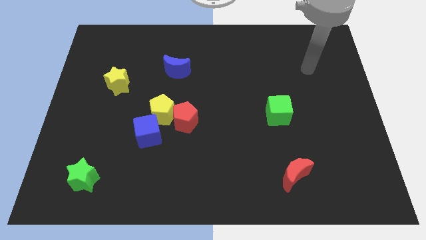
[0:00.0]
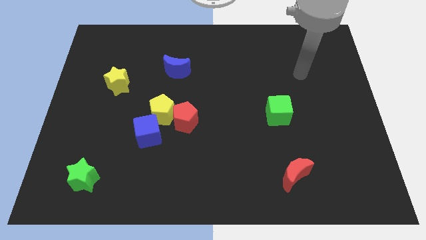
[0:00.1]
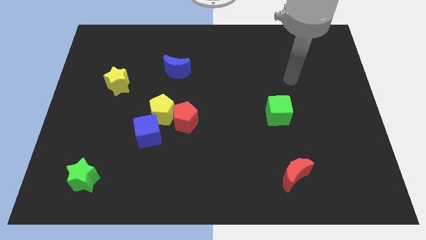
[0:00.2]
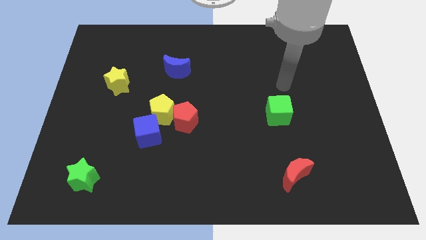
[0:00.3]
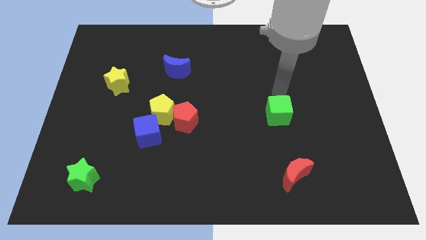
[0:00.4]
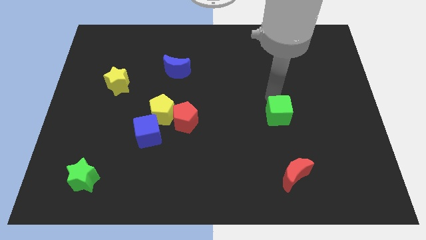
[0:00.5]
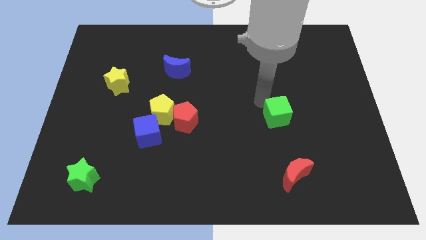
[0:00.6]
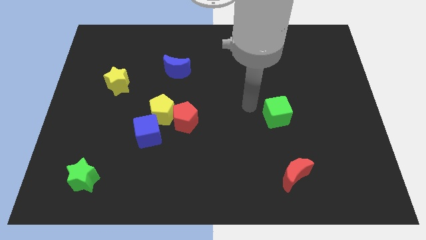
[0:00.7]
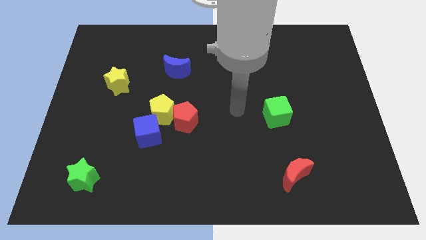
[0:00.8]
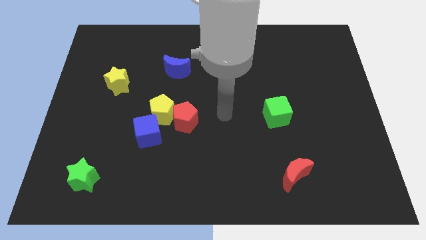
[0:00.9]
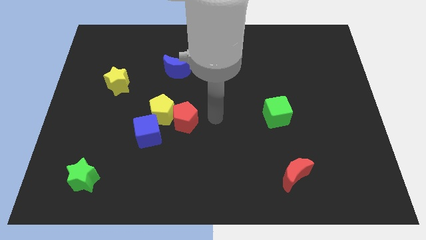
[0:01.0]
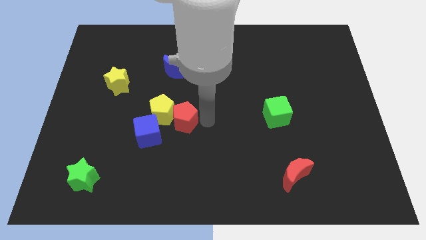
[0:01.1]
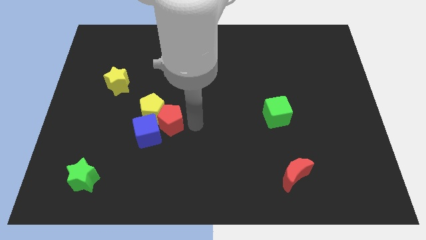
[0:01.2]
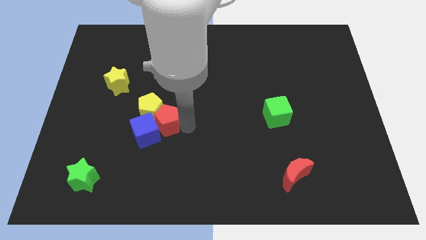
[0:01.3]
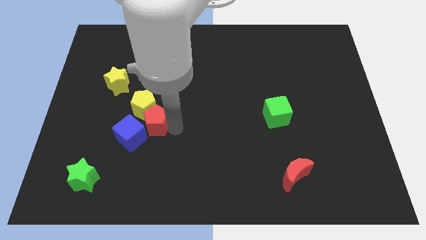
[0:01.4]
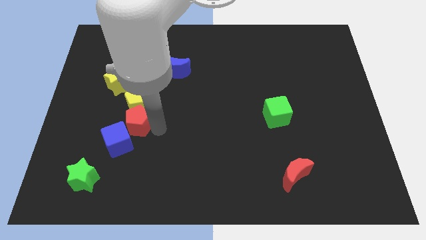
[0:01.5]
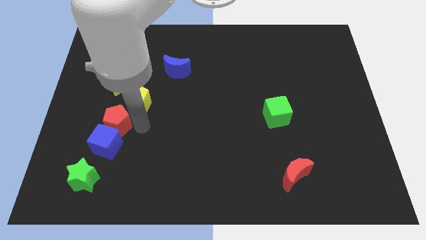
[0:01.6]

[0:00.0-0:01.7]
separate the yellow pentagon from the red pentagon and blue cube

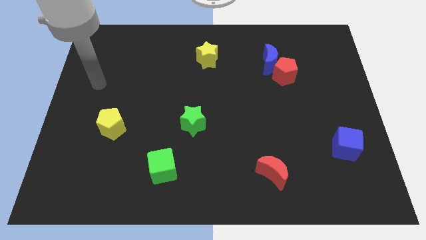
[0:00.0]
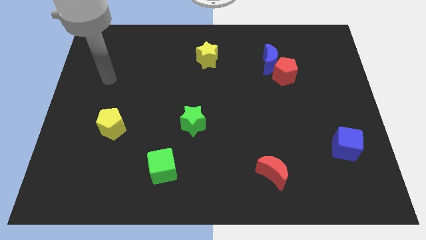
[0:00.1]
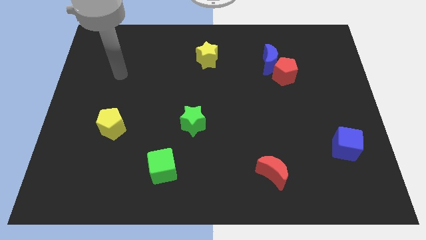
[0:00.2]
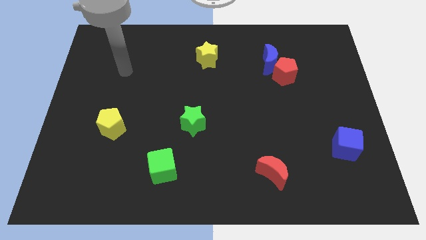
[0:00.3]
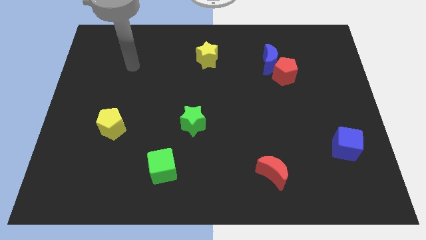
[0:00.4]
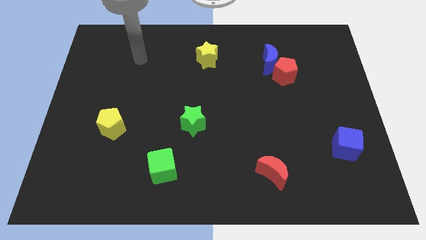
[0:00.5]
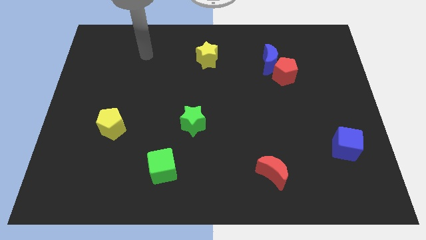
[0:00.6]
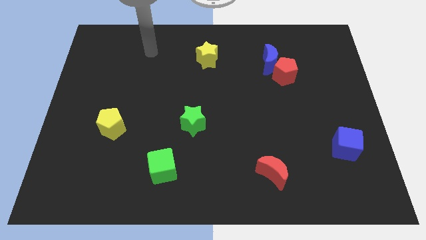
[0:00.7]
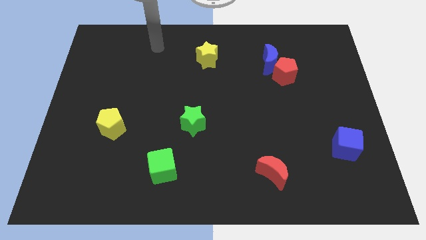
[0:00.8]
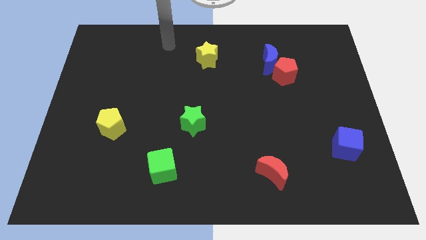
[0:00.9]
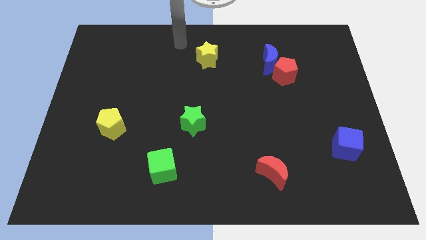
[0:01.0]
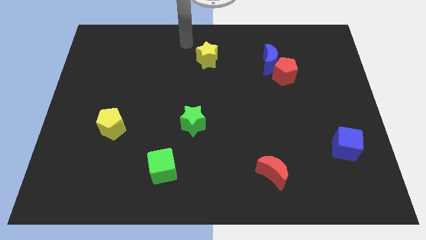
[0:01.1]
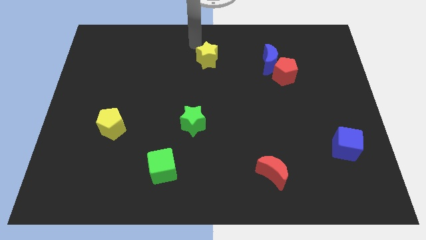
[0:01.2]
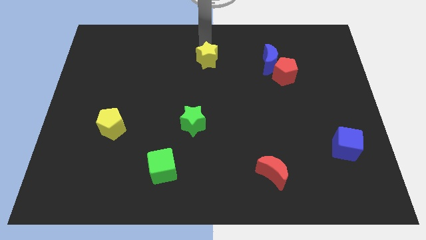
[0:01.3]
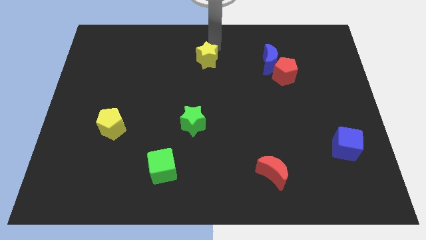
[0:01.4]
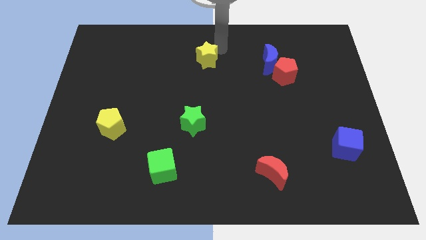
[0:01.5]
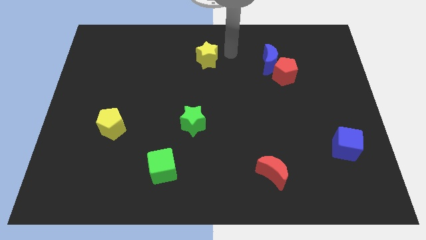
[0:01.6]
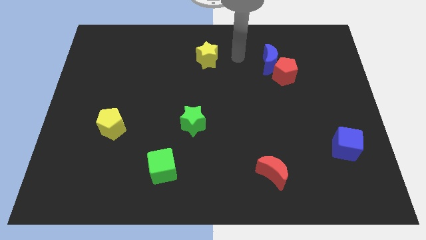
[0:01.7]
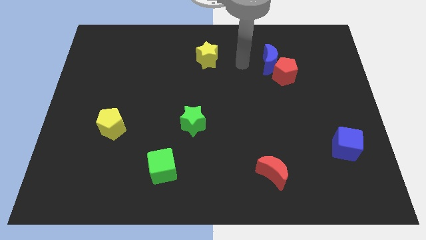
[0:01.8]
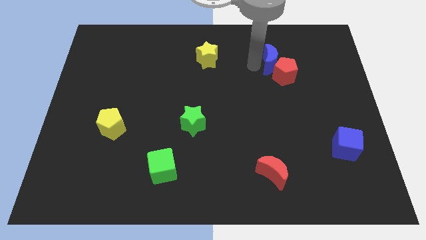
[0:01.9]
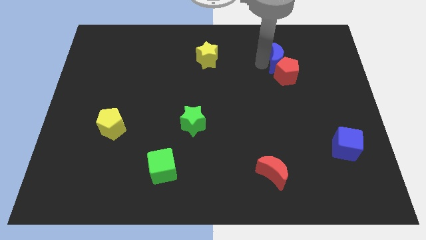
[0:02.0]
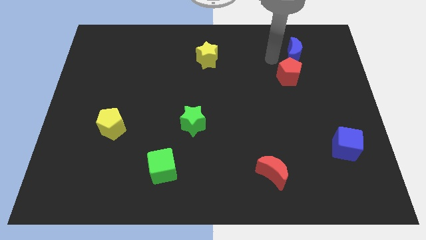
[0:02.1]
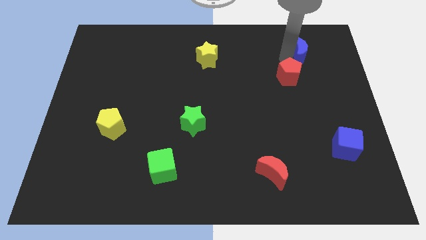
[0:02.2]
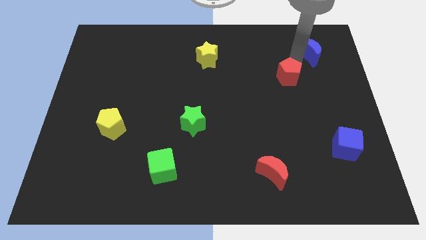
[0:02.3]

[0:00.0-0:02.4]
pull the red pentagon apart from the blue moon

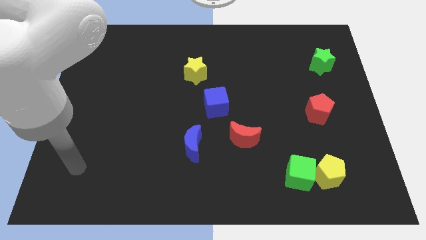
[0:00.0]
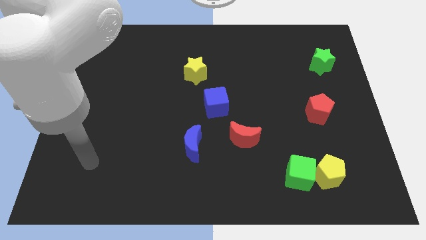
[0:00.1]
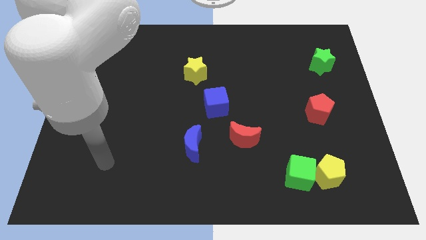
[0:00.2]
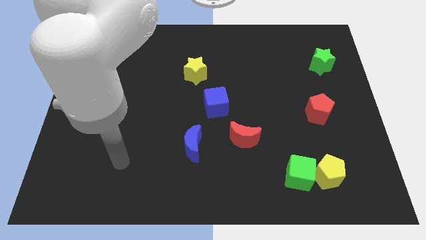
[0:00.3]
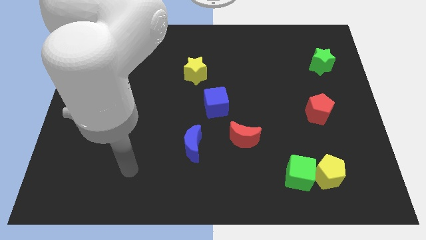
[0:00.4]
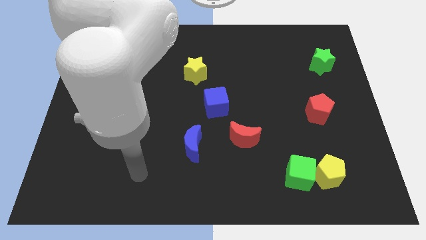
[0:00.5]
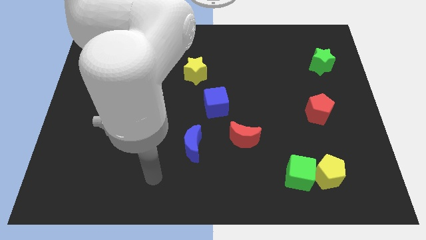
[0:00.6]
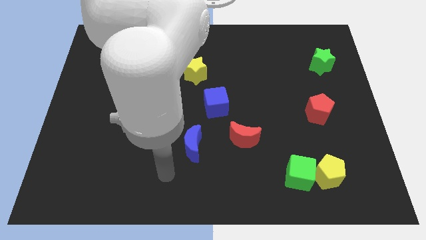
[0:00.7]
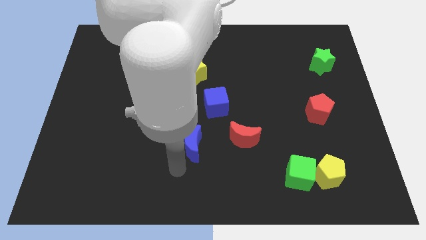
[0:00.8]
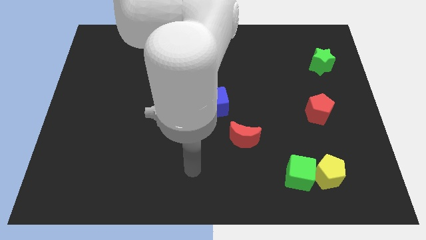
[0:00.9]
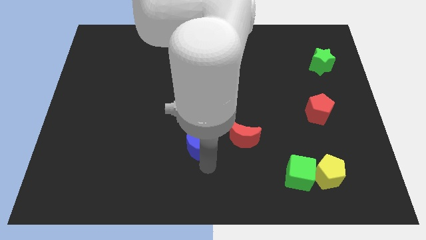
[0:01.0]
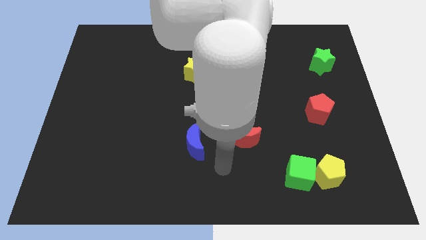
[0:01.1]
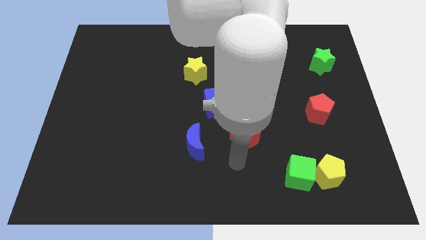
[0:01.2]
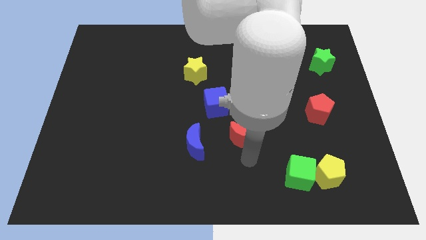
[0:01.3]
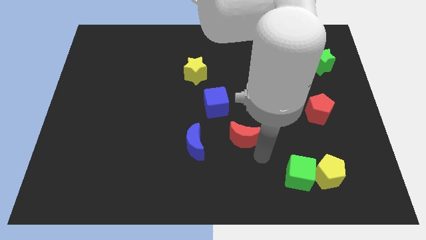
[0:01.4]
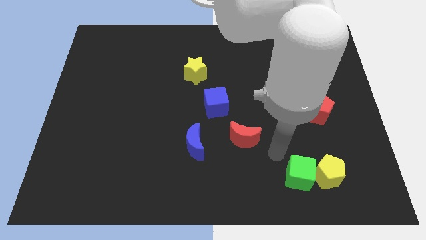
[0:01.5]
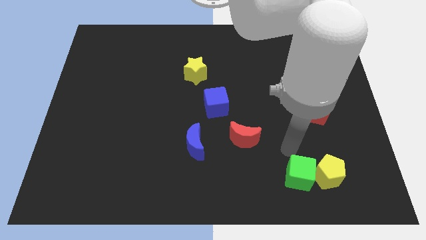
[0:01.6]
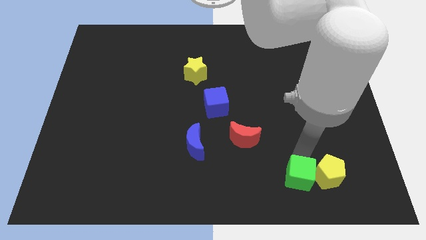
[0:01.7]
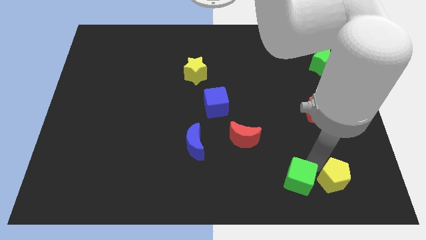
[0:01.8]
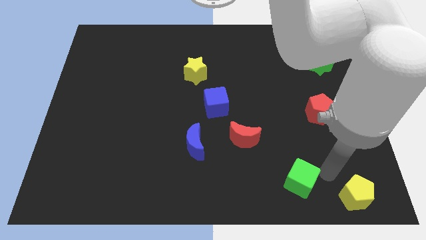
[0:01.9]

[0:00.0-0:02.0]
separate the green cube from the yellow pentagon

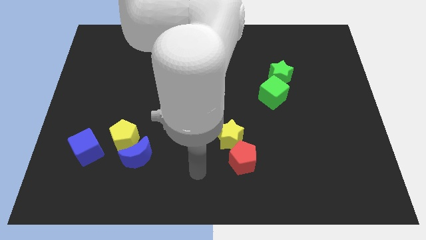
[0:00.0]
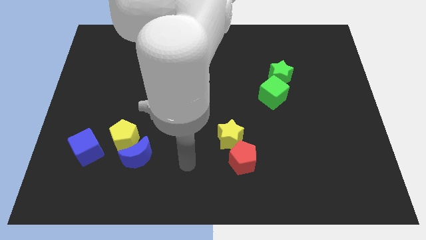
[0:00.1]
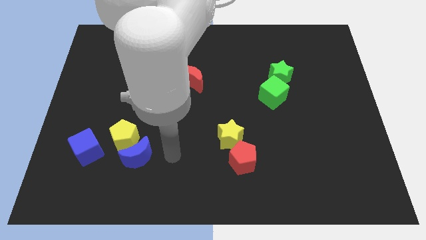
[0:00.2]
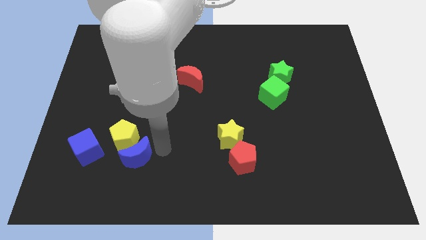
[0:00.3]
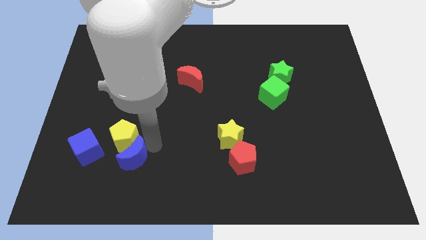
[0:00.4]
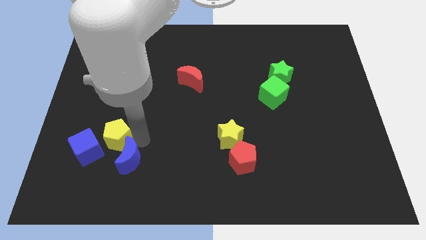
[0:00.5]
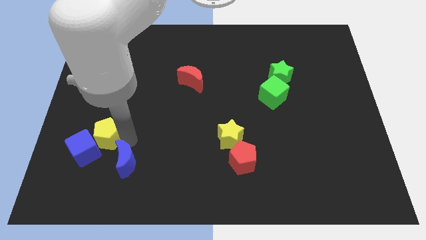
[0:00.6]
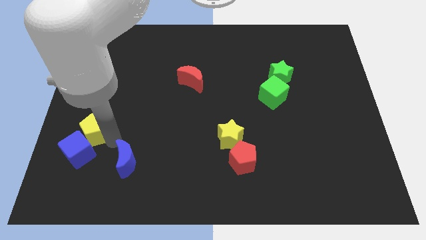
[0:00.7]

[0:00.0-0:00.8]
pull the blue moon apart from the yellow pentagon

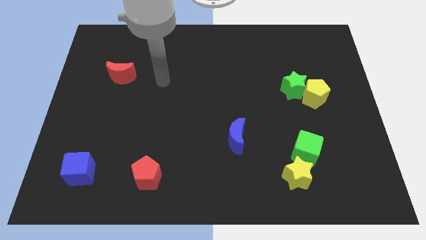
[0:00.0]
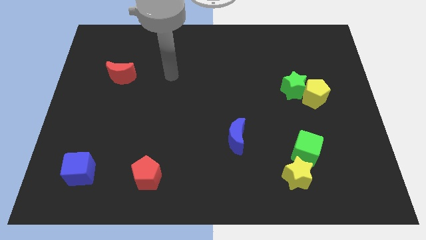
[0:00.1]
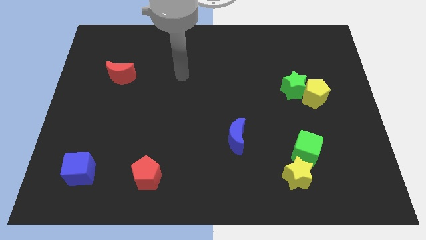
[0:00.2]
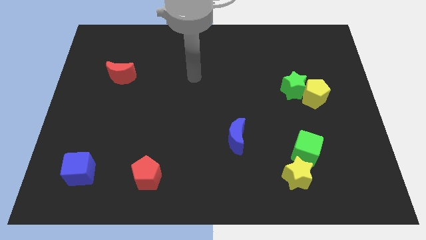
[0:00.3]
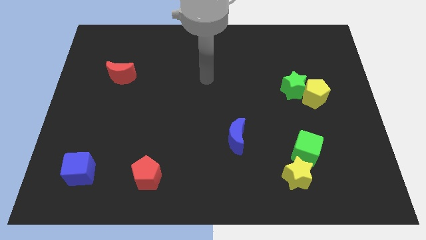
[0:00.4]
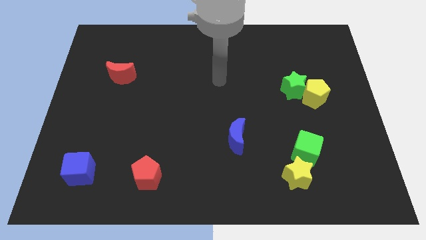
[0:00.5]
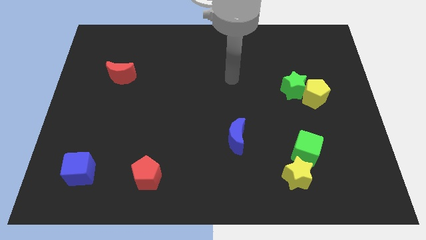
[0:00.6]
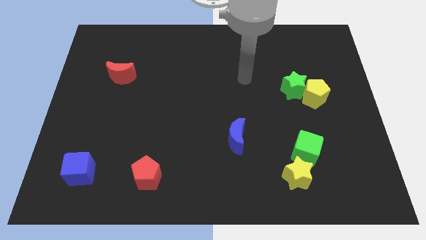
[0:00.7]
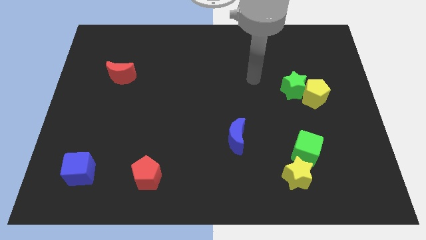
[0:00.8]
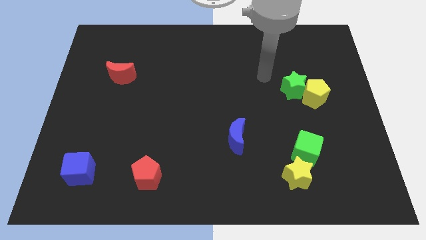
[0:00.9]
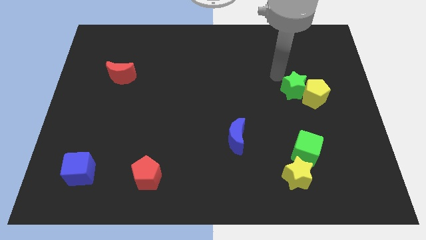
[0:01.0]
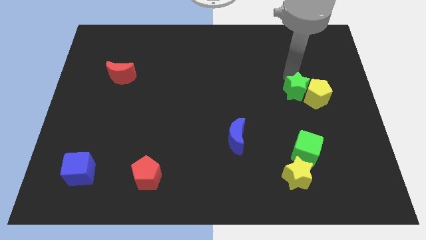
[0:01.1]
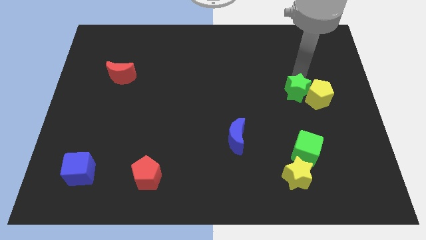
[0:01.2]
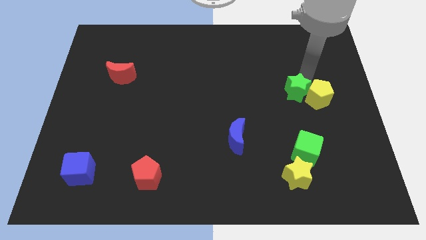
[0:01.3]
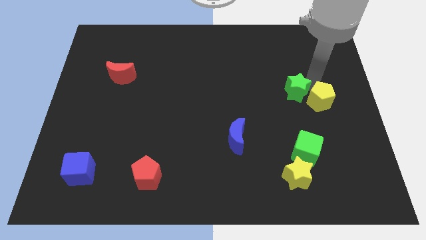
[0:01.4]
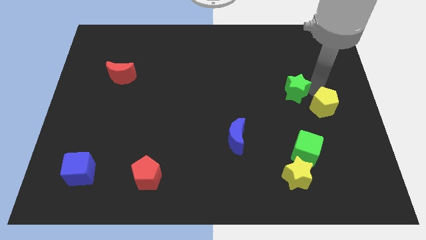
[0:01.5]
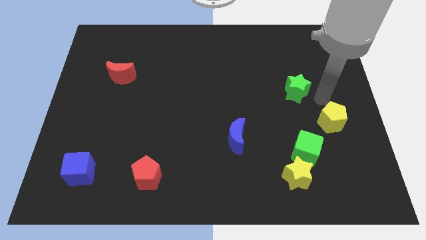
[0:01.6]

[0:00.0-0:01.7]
pull the green star apart from the yellow pentagon

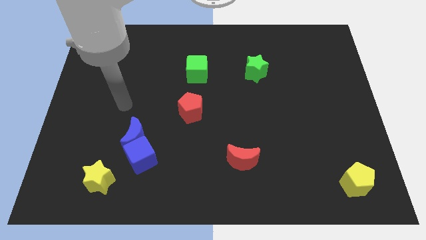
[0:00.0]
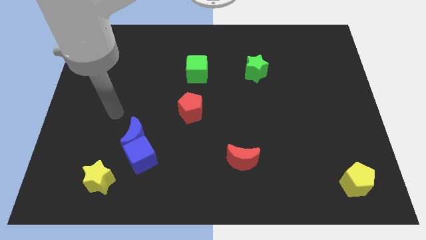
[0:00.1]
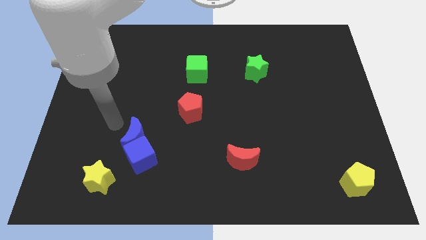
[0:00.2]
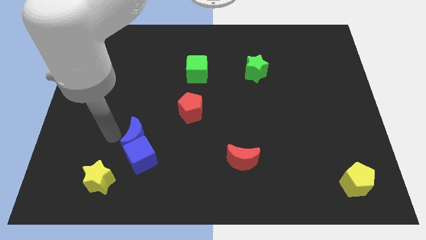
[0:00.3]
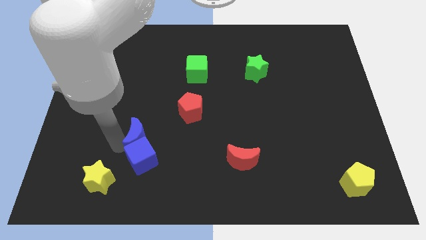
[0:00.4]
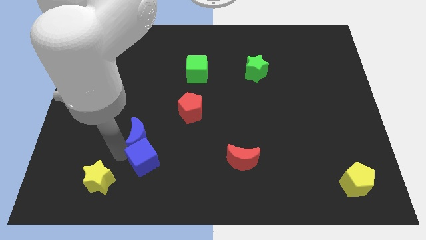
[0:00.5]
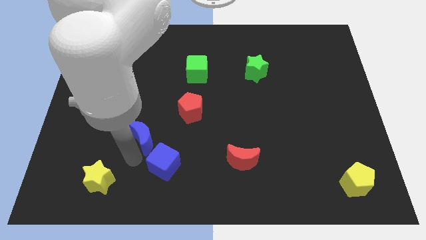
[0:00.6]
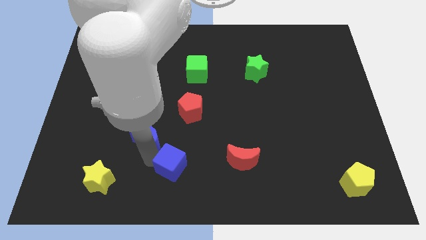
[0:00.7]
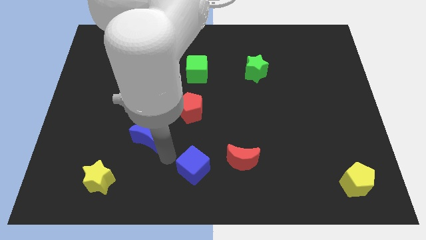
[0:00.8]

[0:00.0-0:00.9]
move the blue moon away from the blue cube

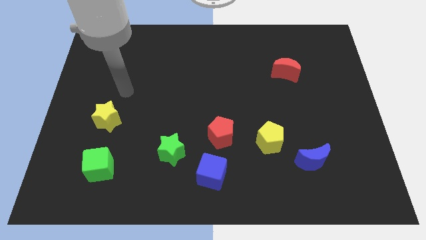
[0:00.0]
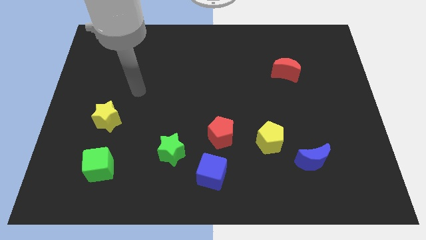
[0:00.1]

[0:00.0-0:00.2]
move the red pentagon away from the blue cube
